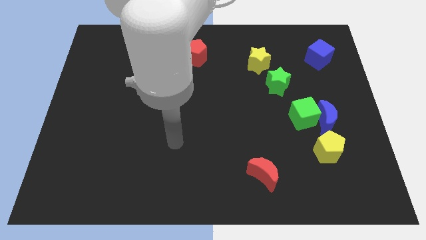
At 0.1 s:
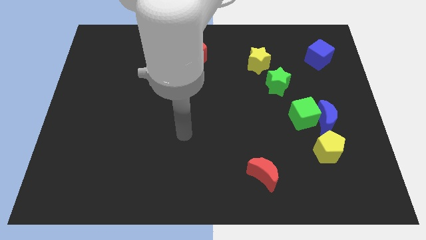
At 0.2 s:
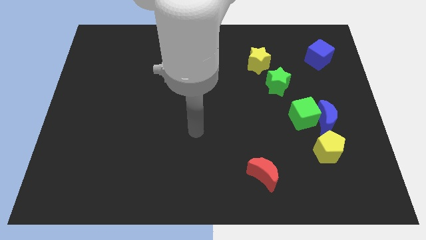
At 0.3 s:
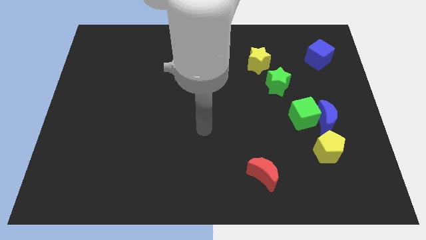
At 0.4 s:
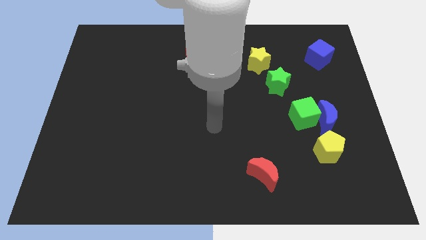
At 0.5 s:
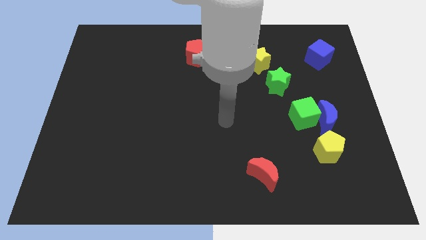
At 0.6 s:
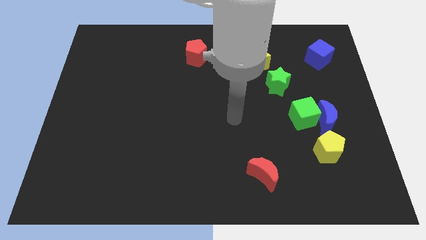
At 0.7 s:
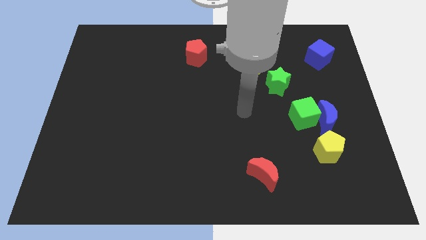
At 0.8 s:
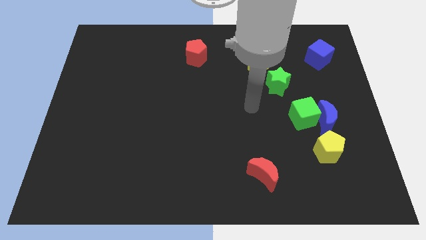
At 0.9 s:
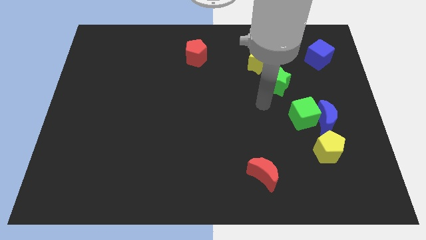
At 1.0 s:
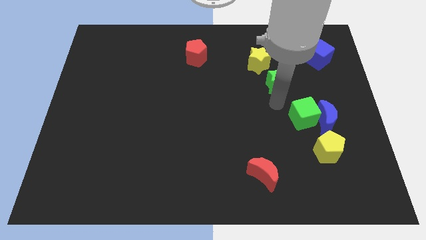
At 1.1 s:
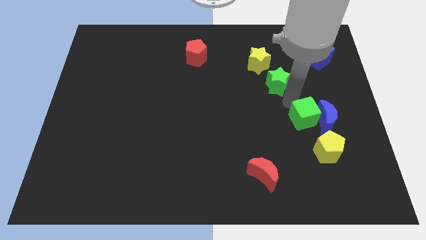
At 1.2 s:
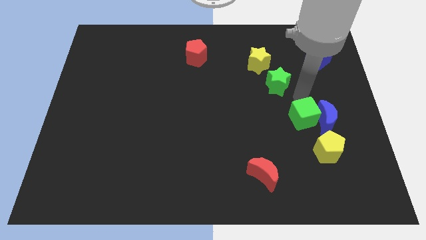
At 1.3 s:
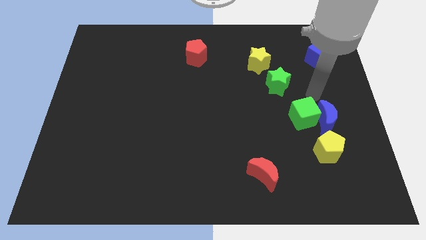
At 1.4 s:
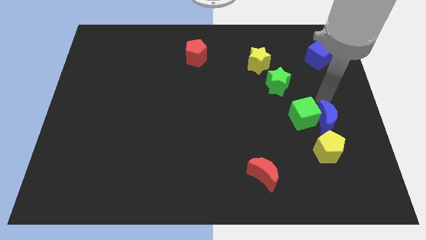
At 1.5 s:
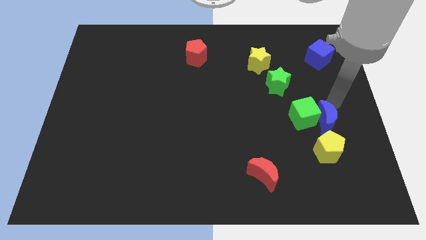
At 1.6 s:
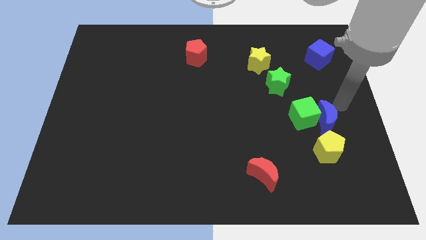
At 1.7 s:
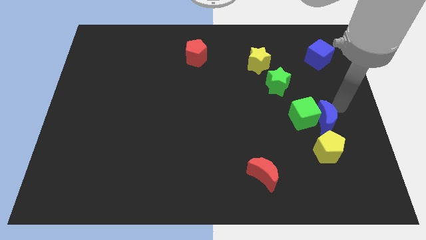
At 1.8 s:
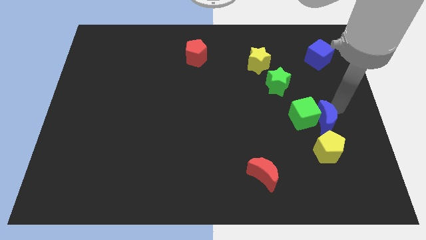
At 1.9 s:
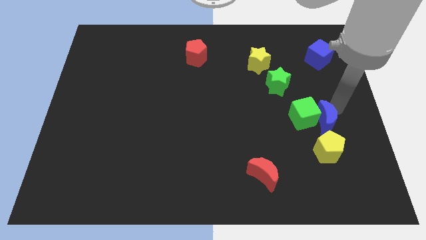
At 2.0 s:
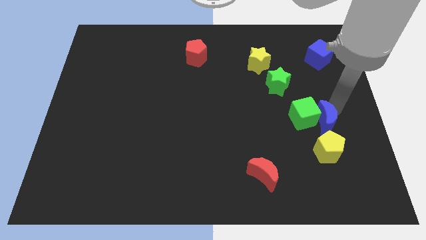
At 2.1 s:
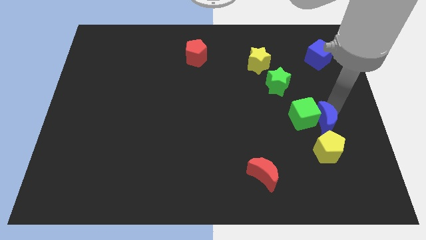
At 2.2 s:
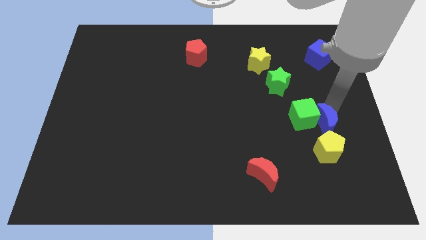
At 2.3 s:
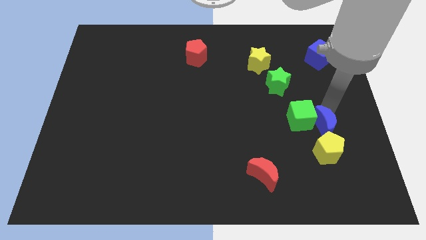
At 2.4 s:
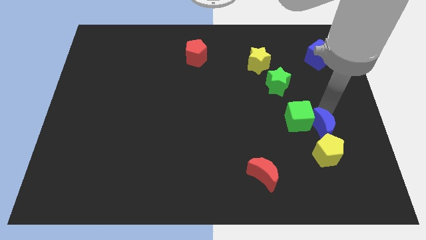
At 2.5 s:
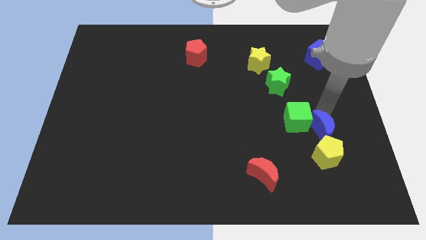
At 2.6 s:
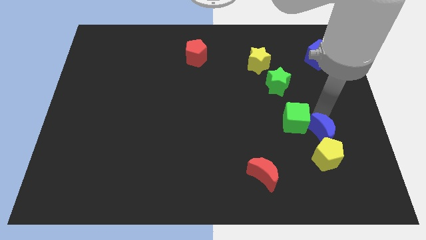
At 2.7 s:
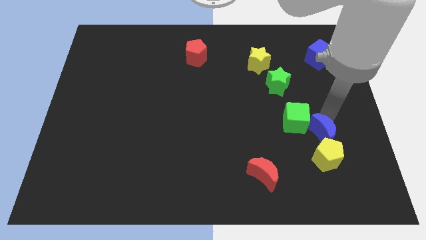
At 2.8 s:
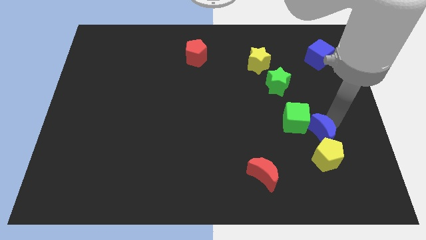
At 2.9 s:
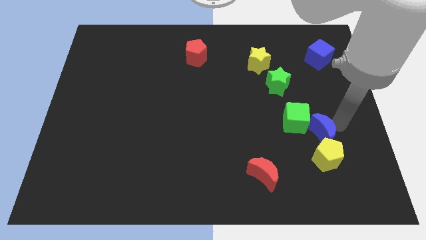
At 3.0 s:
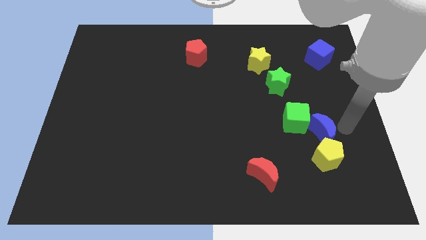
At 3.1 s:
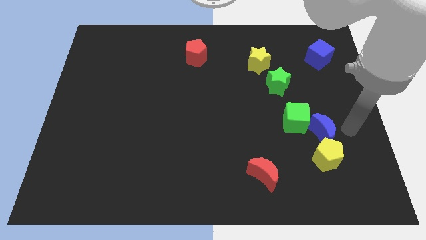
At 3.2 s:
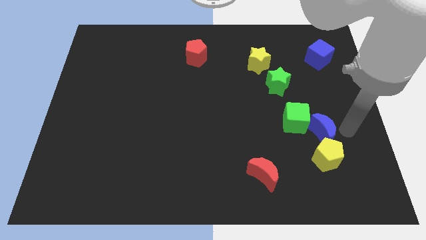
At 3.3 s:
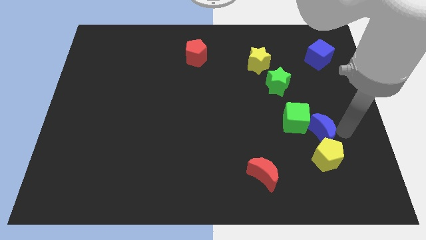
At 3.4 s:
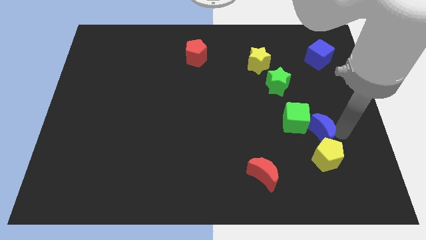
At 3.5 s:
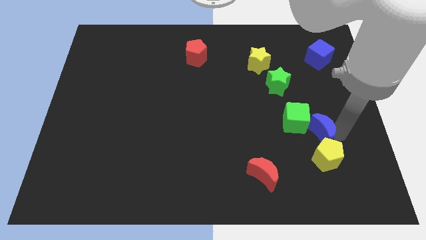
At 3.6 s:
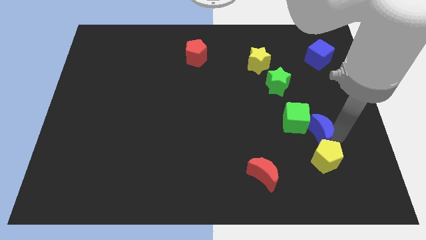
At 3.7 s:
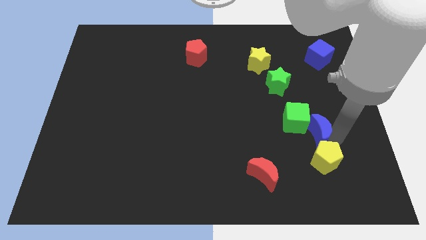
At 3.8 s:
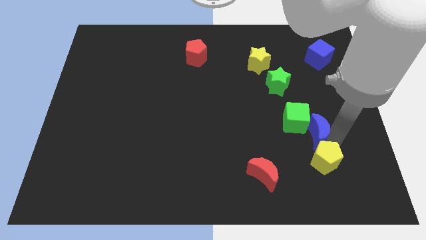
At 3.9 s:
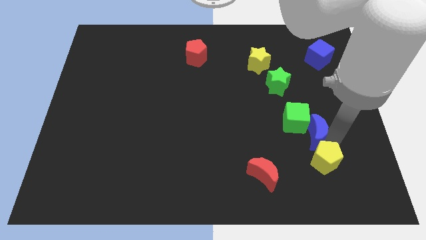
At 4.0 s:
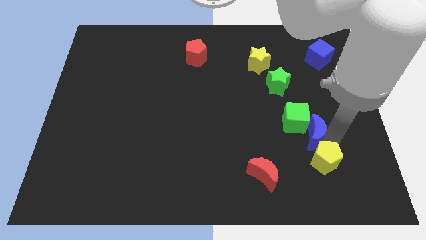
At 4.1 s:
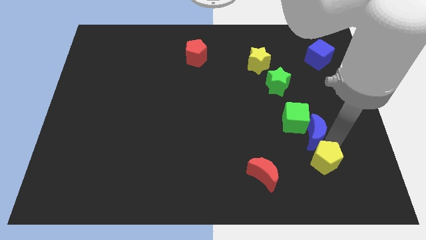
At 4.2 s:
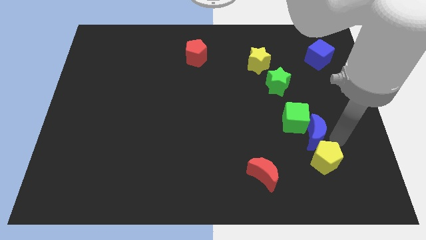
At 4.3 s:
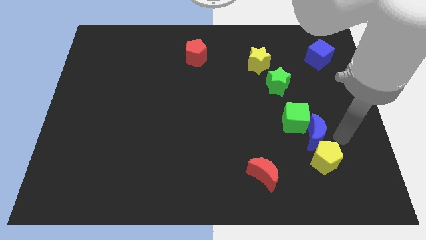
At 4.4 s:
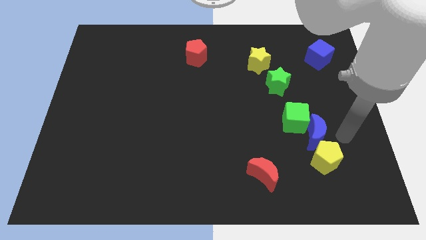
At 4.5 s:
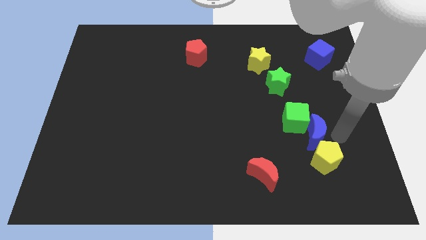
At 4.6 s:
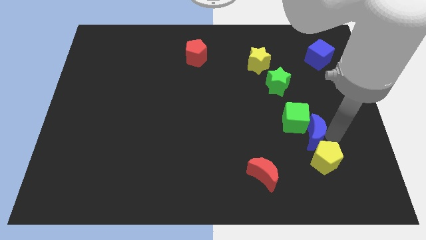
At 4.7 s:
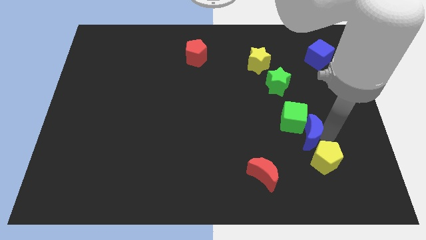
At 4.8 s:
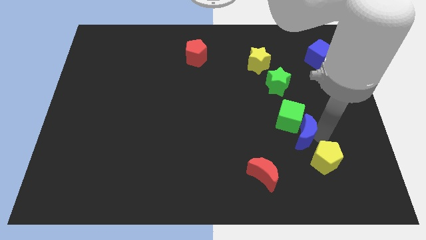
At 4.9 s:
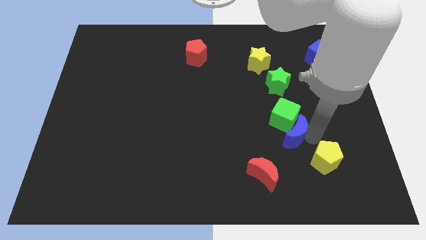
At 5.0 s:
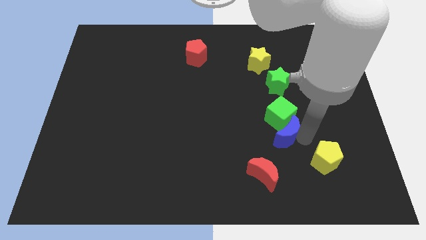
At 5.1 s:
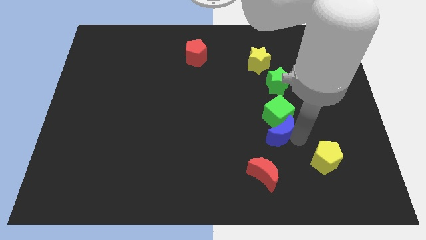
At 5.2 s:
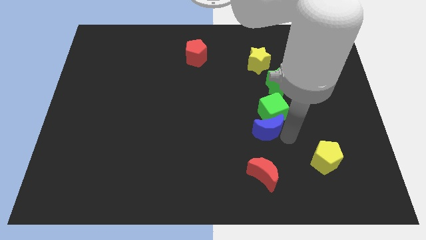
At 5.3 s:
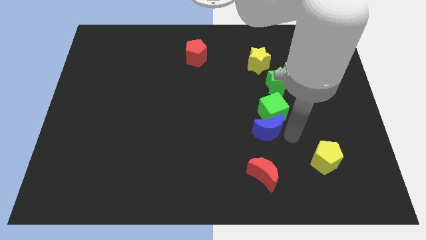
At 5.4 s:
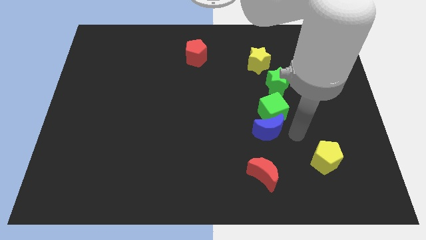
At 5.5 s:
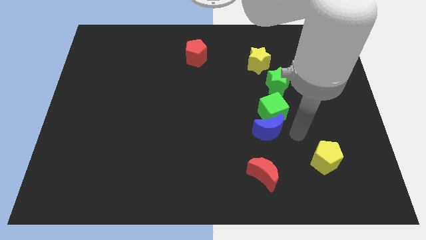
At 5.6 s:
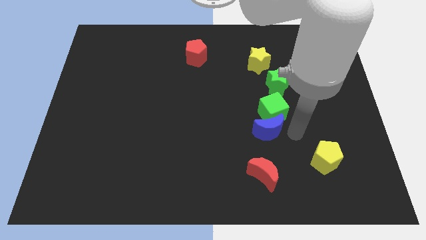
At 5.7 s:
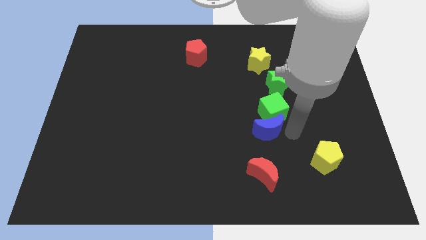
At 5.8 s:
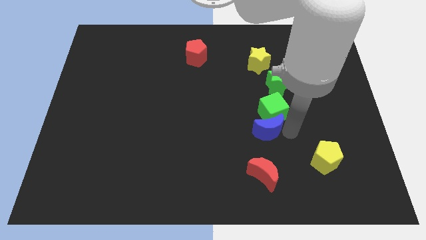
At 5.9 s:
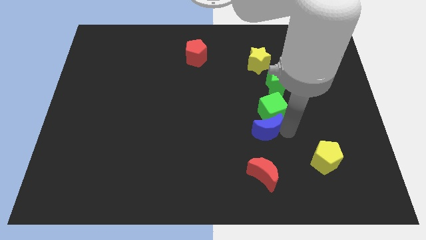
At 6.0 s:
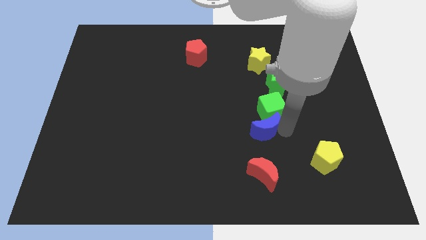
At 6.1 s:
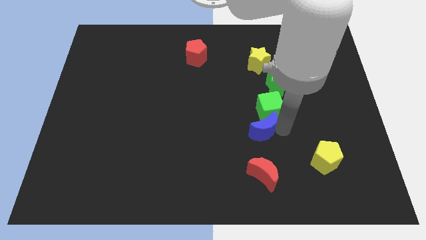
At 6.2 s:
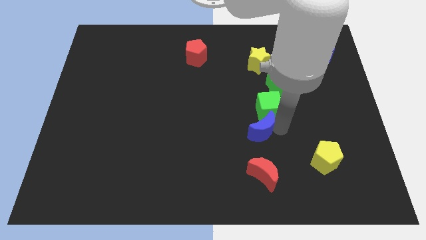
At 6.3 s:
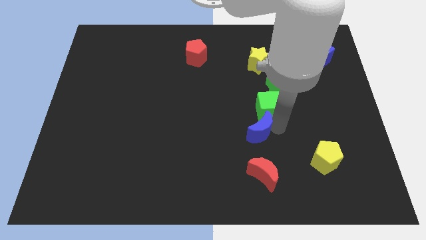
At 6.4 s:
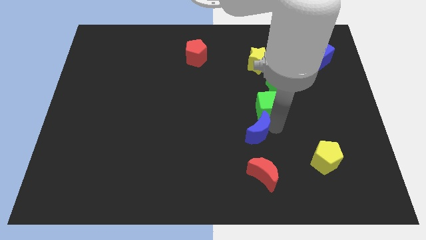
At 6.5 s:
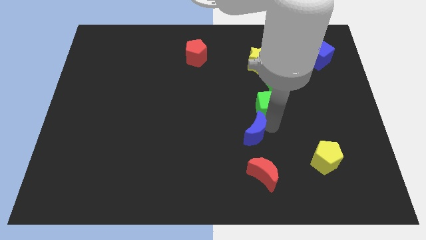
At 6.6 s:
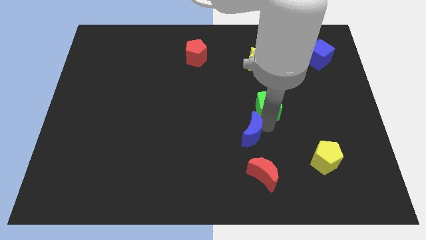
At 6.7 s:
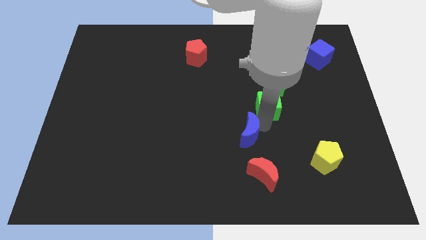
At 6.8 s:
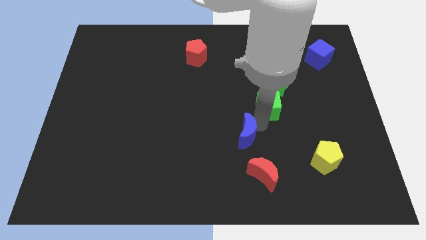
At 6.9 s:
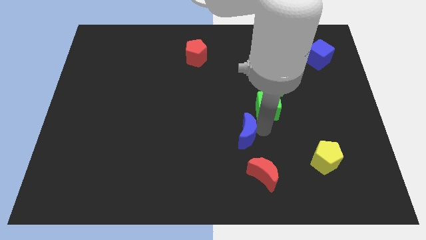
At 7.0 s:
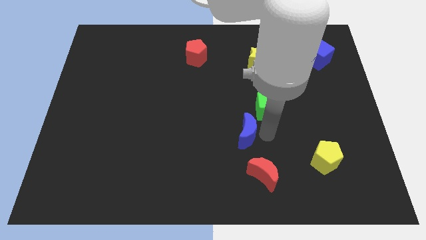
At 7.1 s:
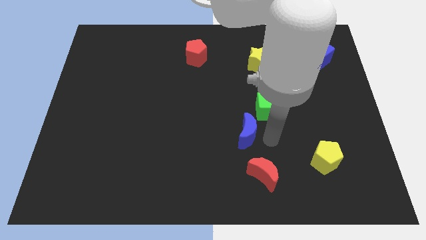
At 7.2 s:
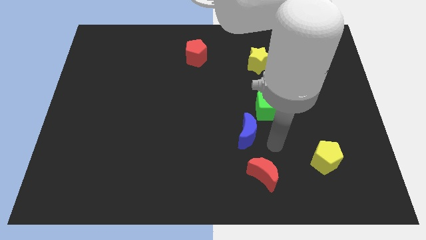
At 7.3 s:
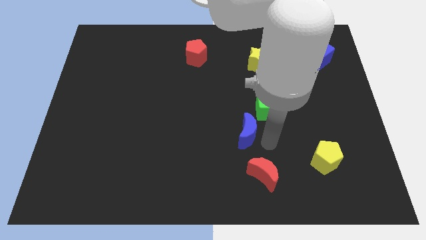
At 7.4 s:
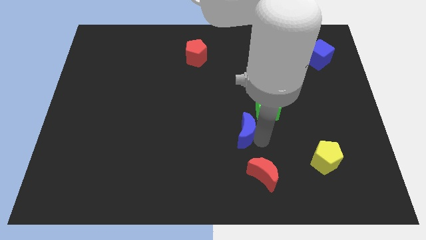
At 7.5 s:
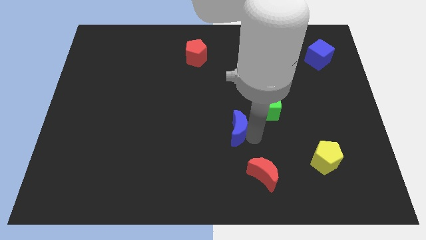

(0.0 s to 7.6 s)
slide the blue moon left
